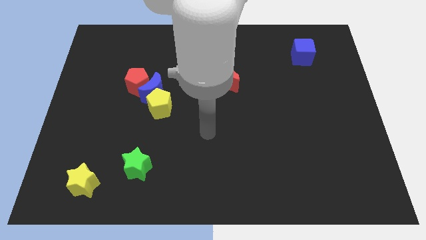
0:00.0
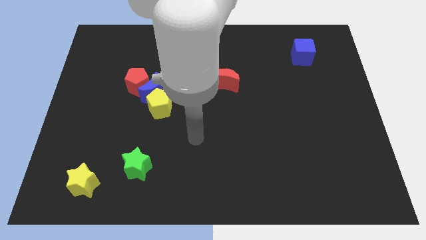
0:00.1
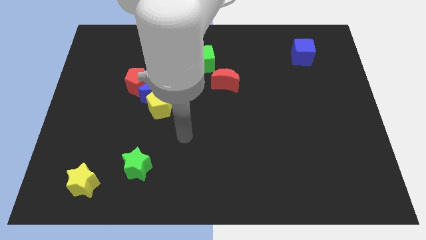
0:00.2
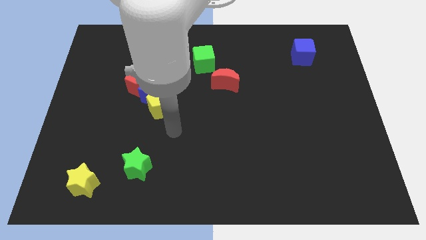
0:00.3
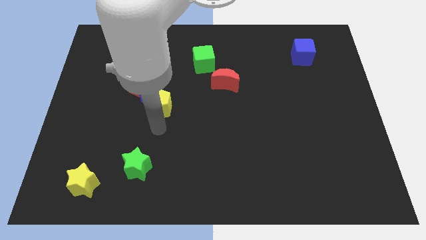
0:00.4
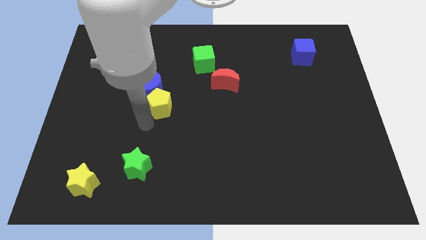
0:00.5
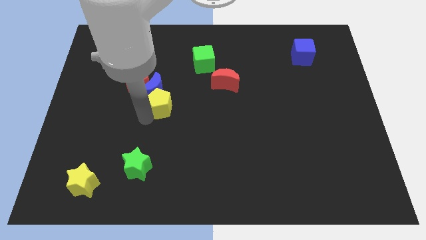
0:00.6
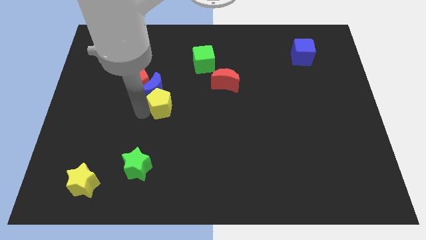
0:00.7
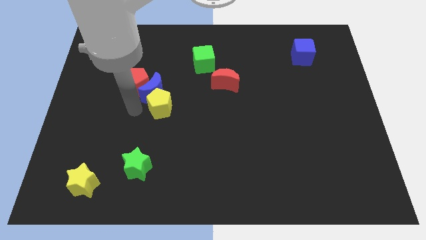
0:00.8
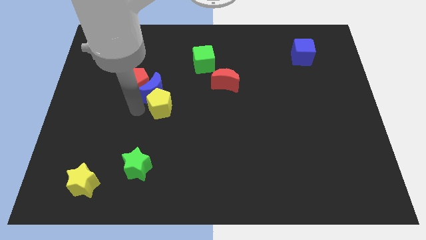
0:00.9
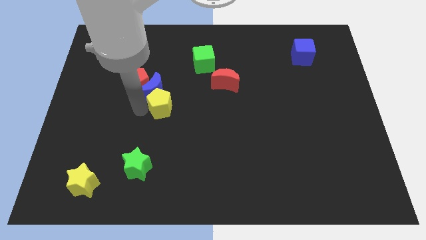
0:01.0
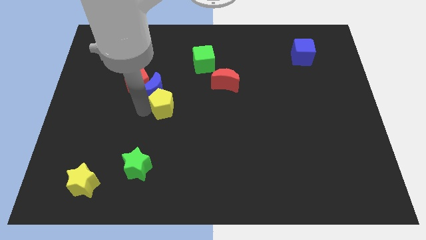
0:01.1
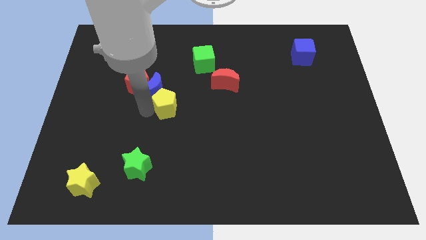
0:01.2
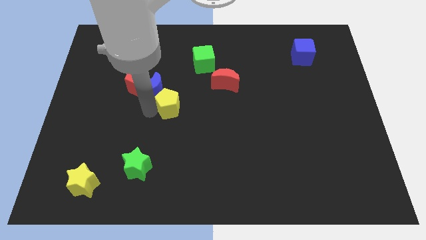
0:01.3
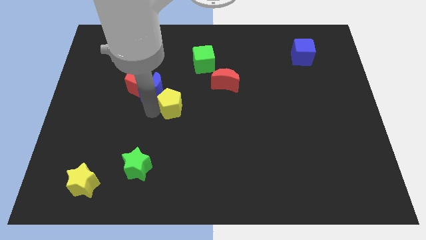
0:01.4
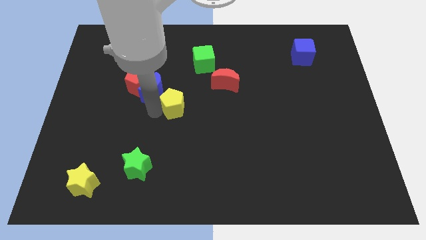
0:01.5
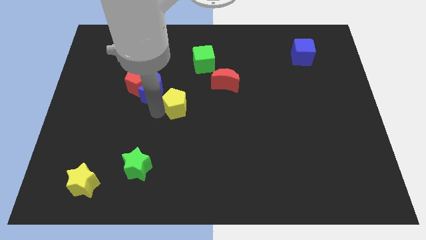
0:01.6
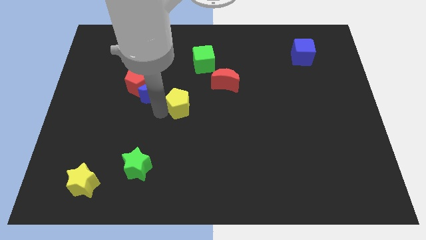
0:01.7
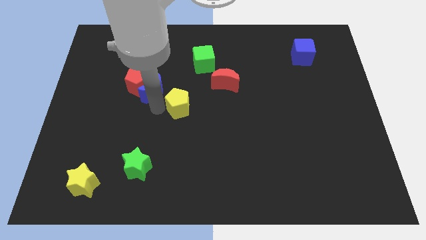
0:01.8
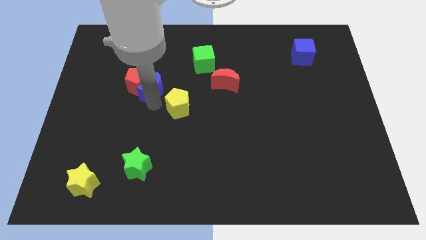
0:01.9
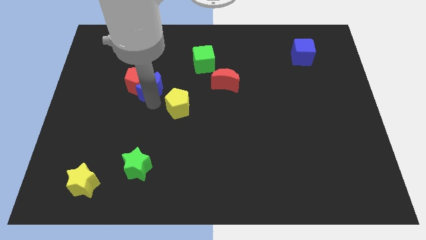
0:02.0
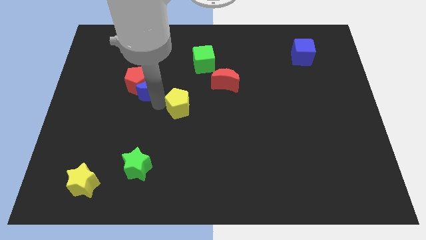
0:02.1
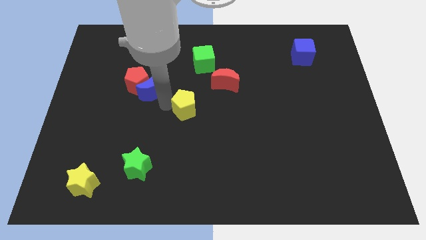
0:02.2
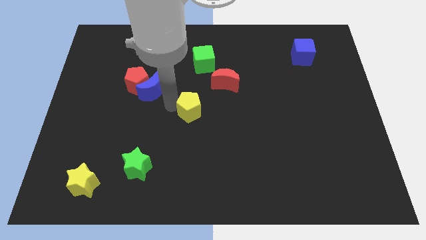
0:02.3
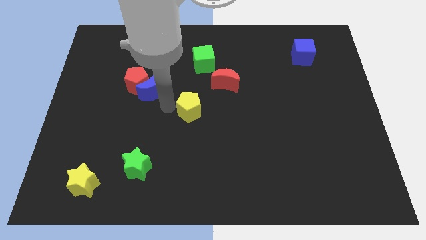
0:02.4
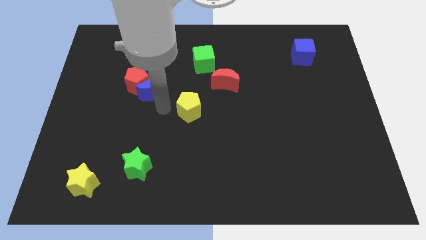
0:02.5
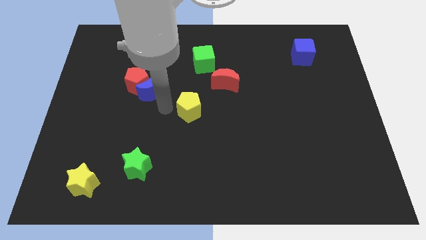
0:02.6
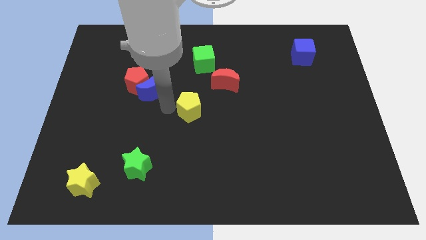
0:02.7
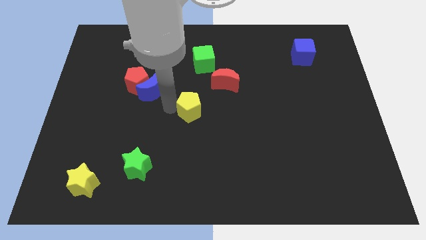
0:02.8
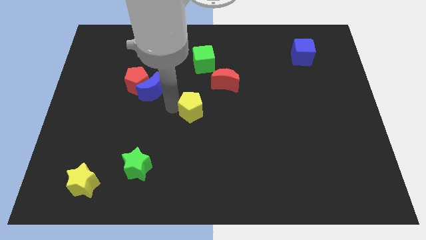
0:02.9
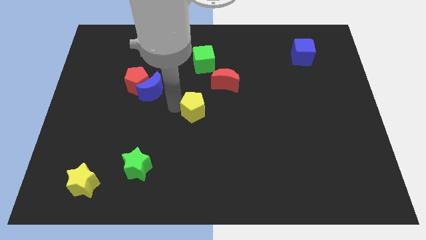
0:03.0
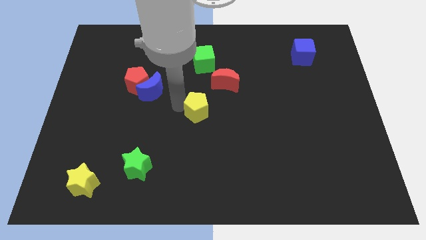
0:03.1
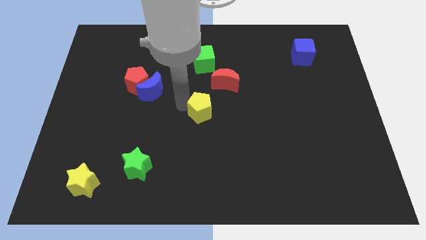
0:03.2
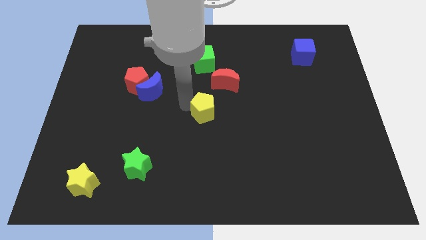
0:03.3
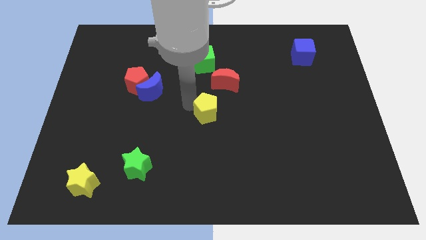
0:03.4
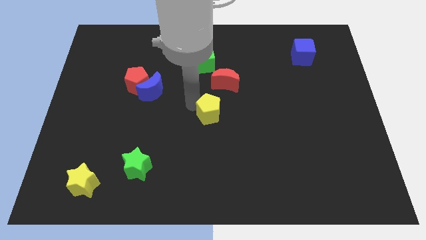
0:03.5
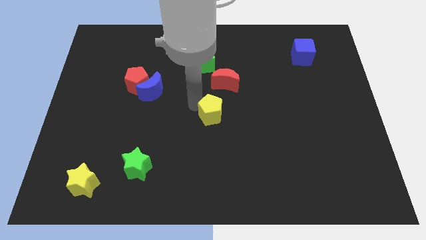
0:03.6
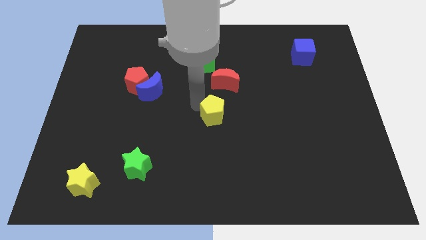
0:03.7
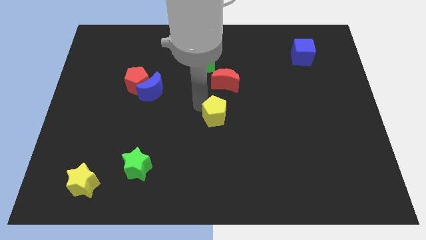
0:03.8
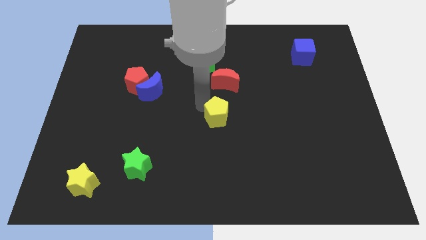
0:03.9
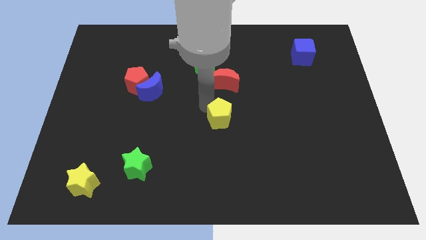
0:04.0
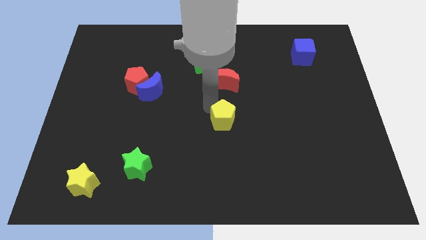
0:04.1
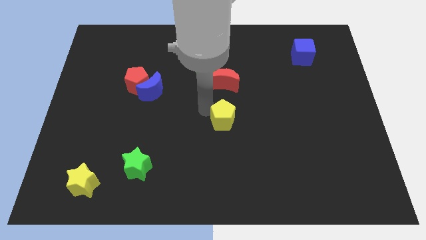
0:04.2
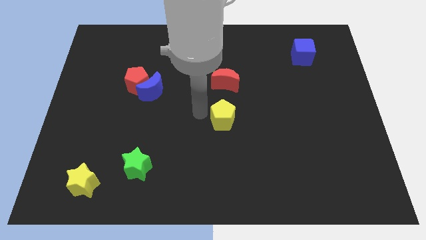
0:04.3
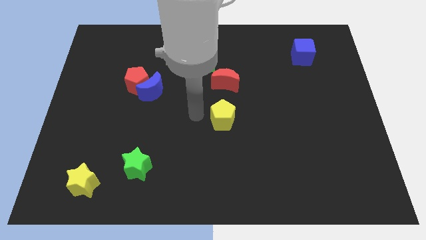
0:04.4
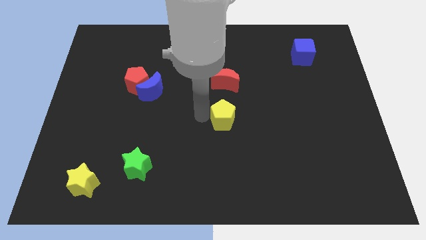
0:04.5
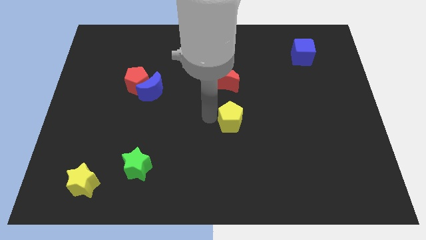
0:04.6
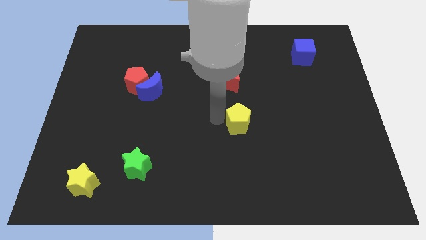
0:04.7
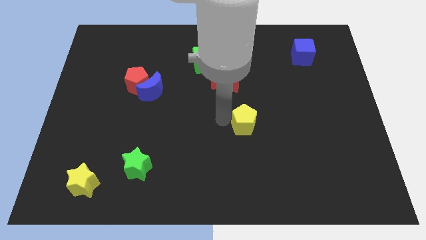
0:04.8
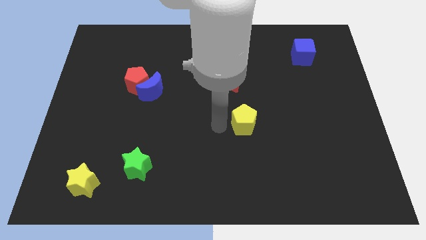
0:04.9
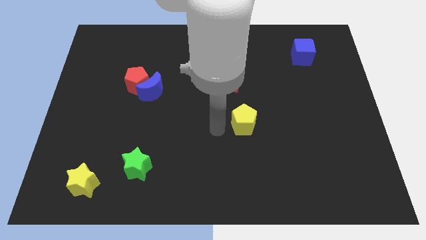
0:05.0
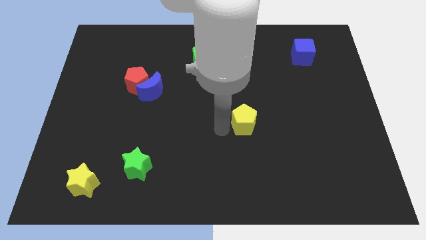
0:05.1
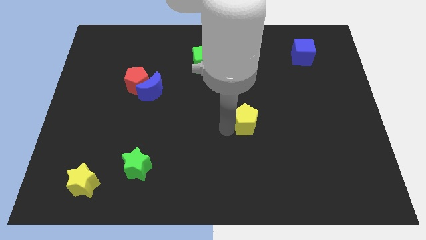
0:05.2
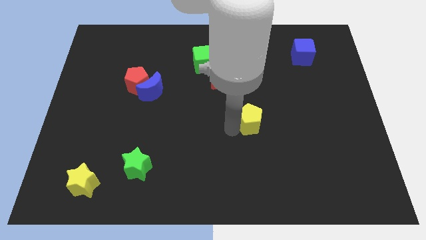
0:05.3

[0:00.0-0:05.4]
slide the yellow pentagon to the right

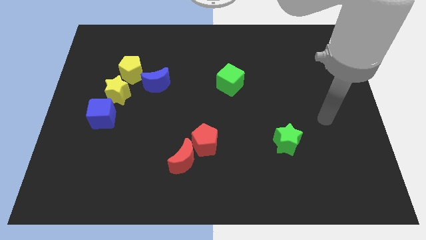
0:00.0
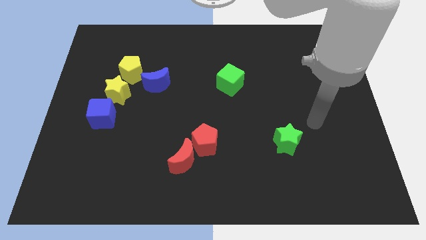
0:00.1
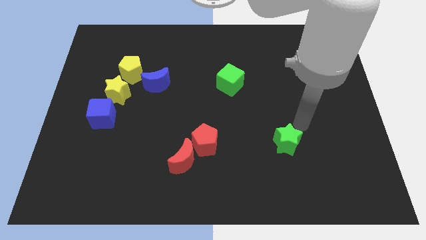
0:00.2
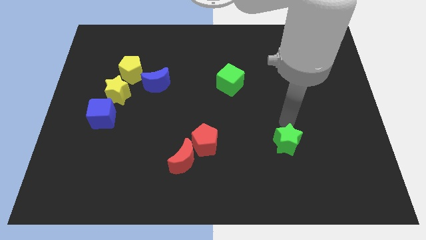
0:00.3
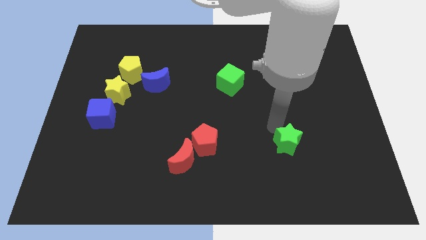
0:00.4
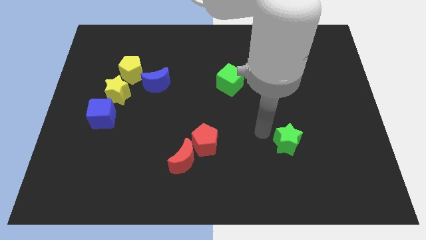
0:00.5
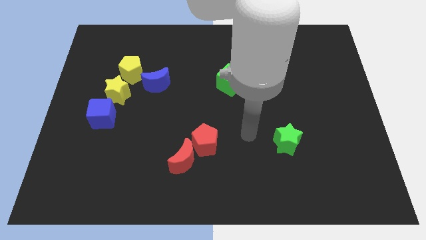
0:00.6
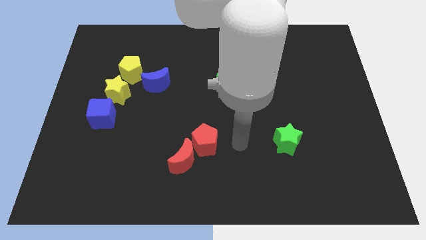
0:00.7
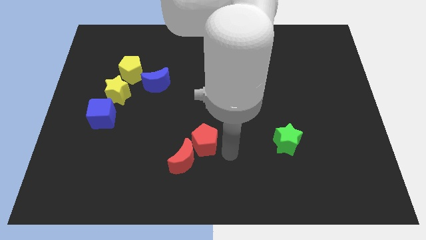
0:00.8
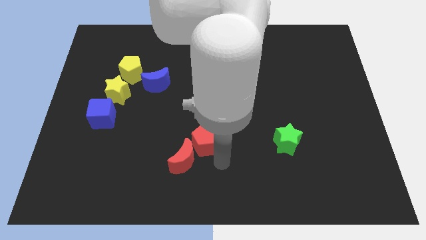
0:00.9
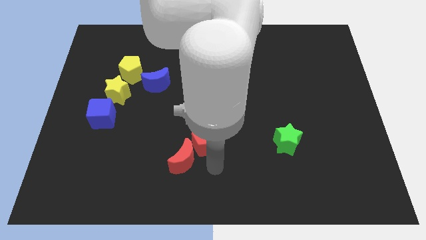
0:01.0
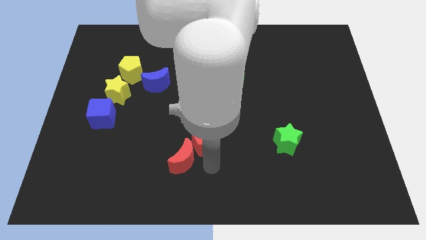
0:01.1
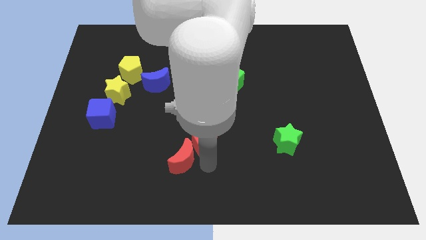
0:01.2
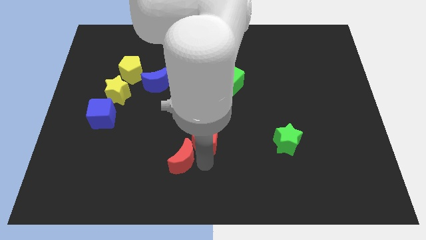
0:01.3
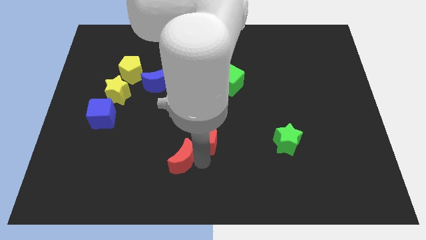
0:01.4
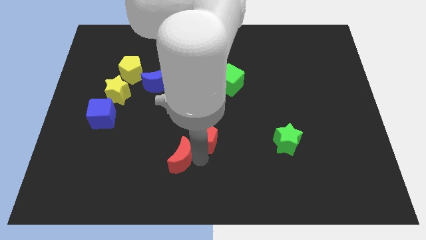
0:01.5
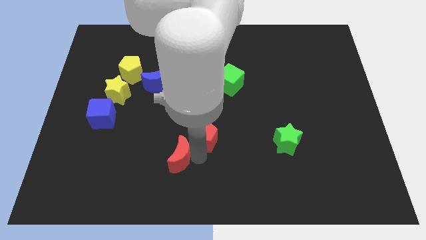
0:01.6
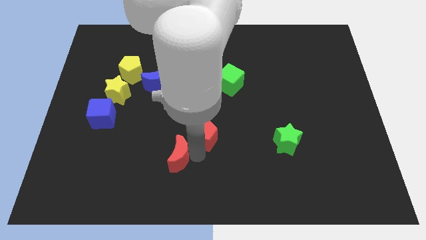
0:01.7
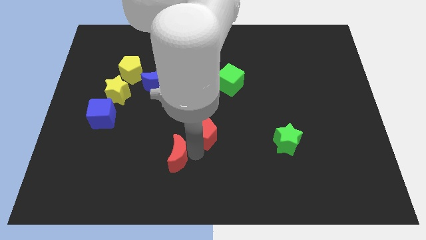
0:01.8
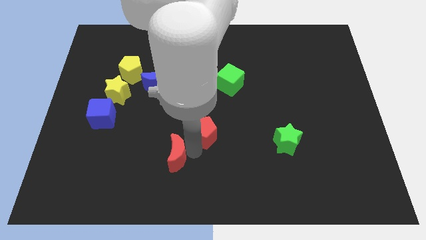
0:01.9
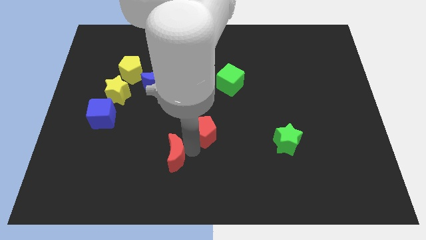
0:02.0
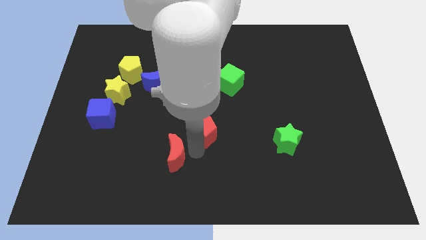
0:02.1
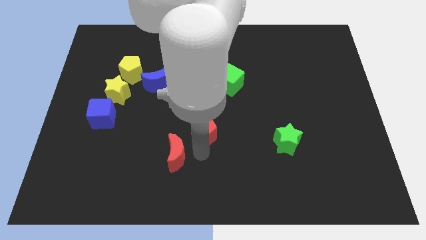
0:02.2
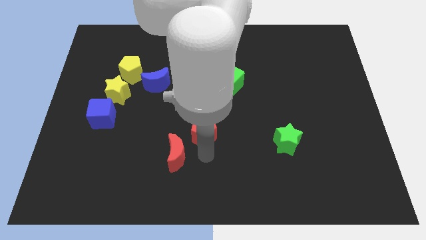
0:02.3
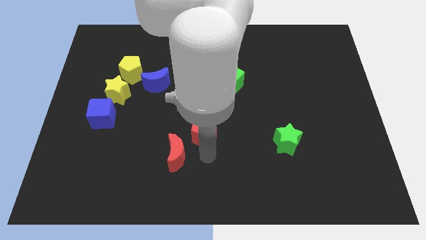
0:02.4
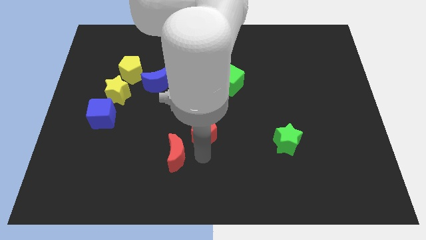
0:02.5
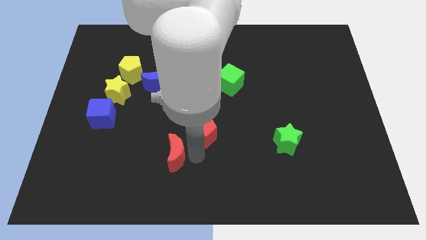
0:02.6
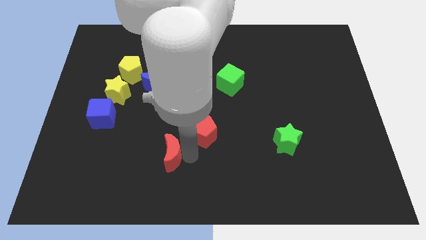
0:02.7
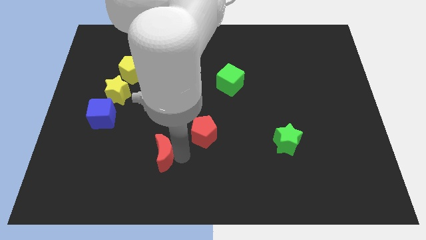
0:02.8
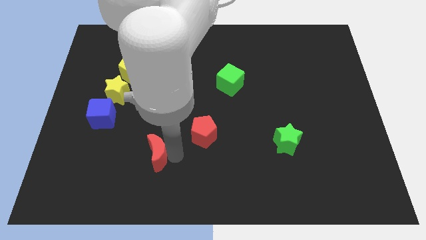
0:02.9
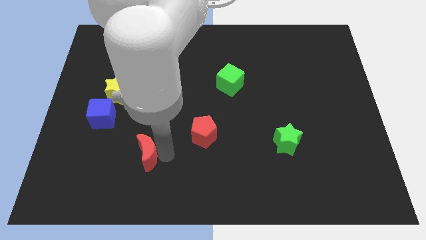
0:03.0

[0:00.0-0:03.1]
push the red moon to the left slightly
